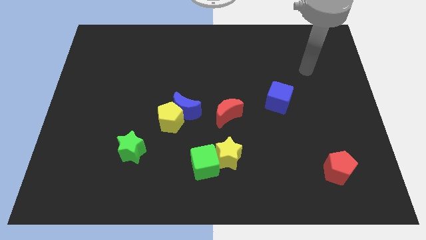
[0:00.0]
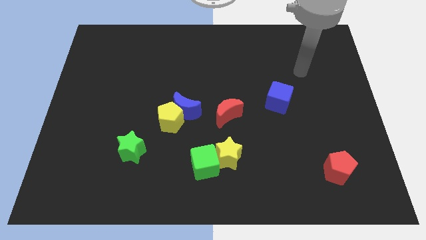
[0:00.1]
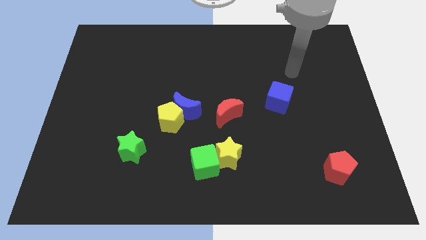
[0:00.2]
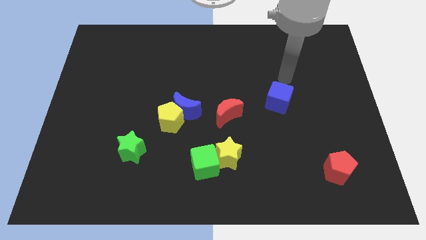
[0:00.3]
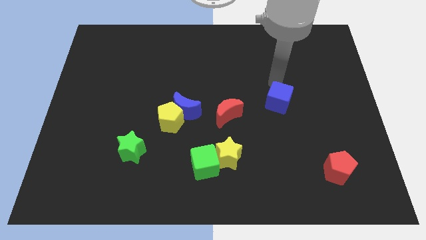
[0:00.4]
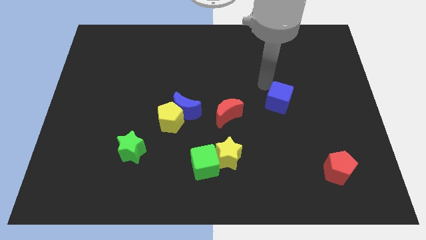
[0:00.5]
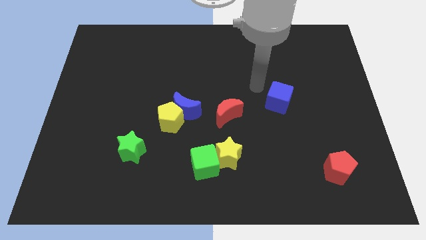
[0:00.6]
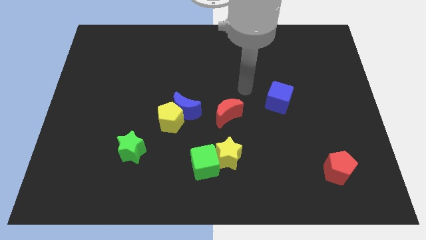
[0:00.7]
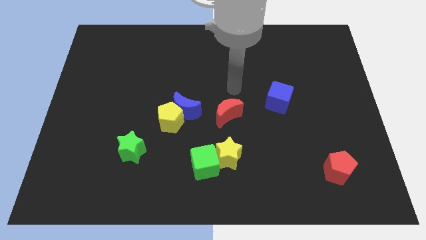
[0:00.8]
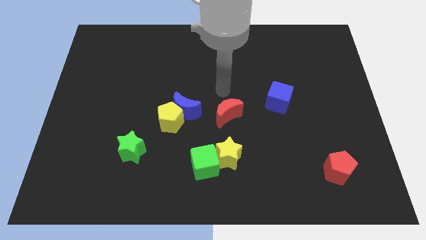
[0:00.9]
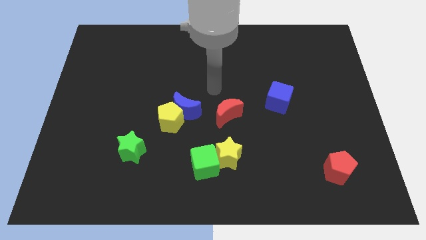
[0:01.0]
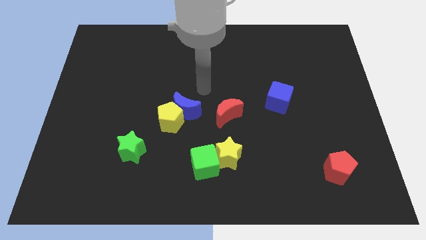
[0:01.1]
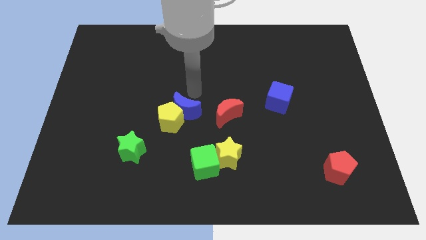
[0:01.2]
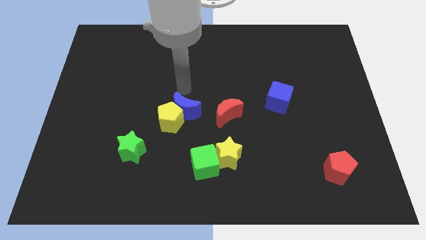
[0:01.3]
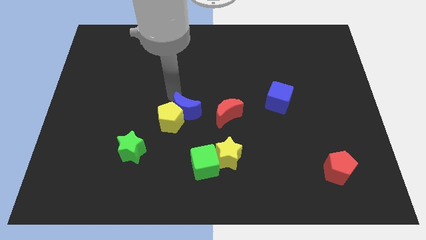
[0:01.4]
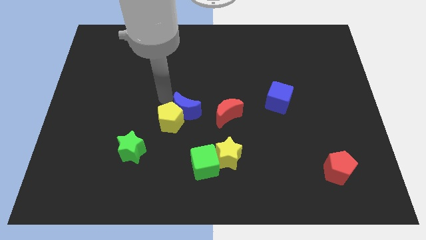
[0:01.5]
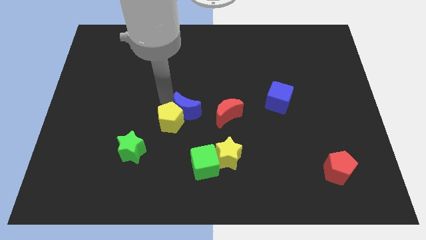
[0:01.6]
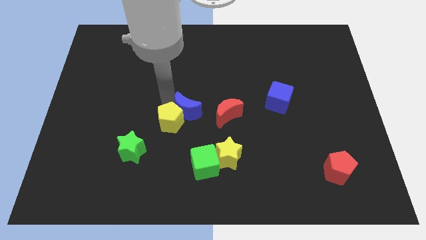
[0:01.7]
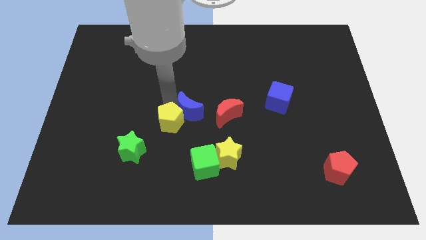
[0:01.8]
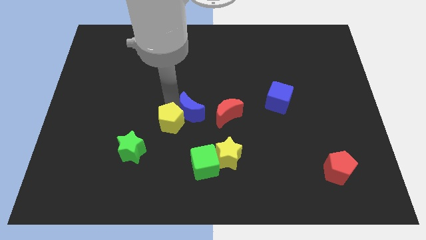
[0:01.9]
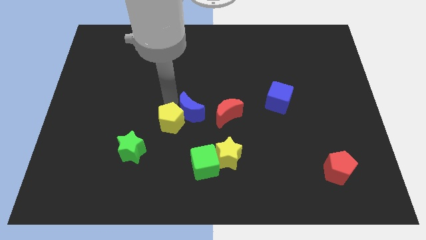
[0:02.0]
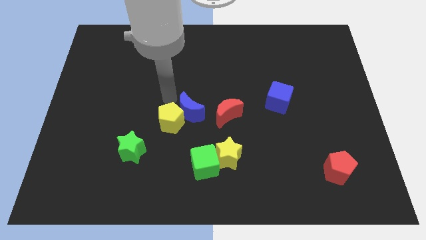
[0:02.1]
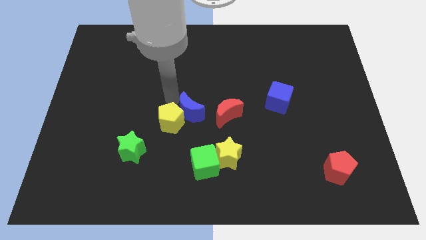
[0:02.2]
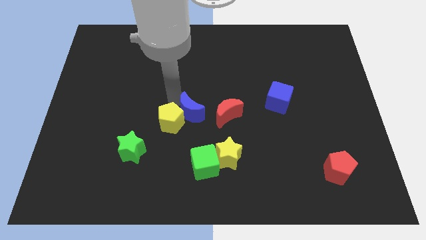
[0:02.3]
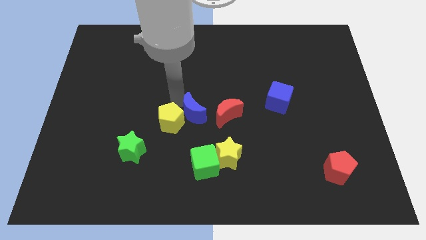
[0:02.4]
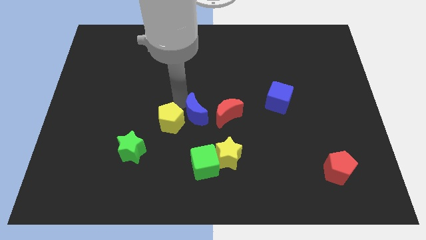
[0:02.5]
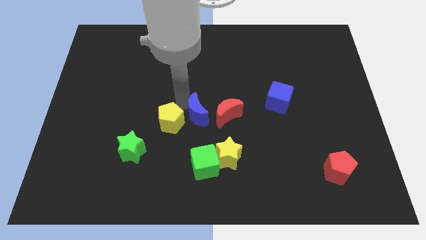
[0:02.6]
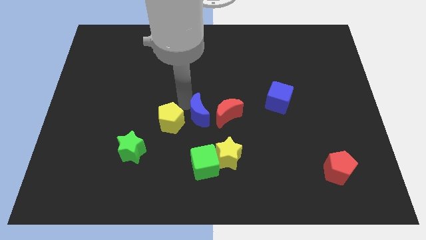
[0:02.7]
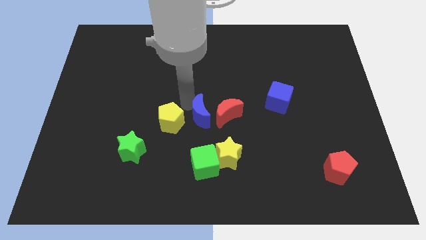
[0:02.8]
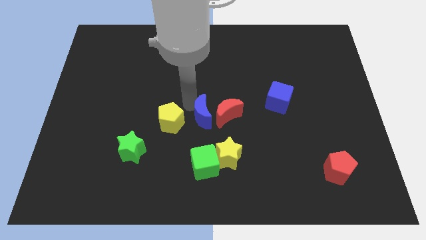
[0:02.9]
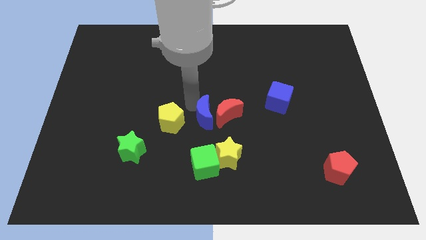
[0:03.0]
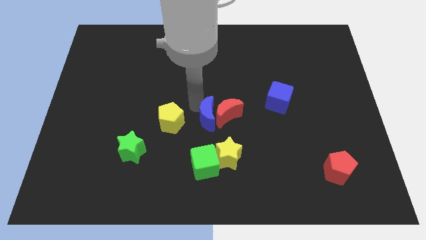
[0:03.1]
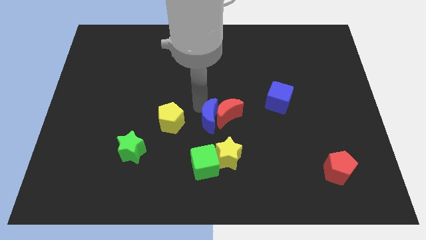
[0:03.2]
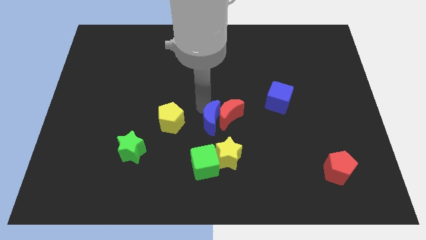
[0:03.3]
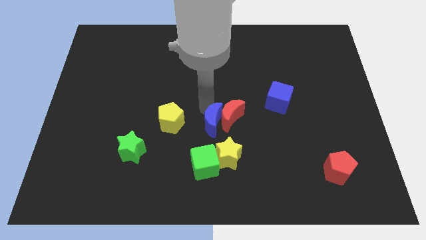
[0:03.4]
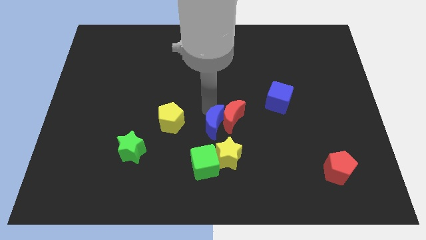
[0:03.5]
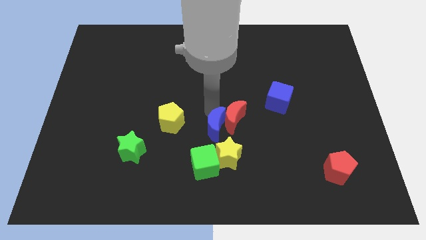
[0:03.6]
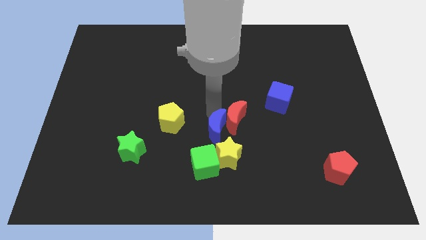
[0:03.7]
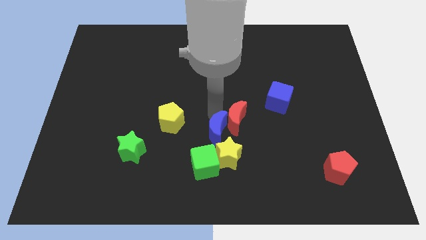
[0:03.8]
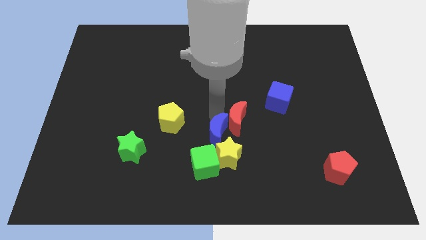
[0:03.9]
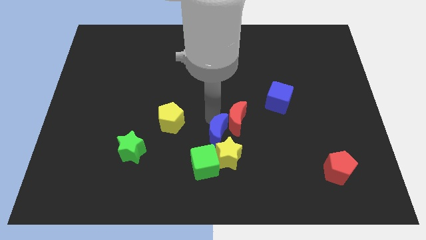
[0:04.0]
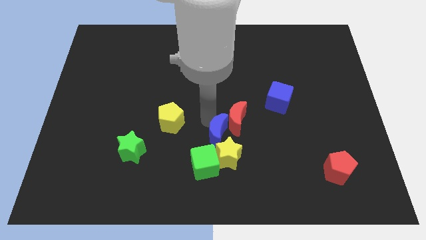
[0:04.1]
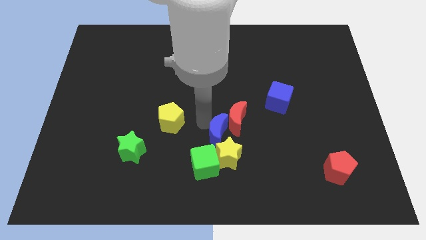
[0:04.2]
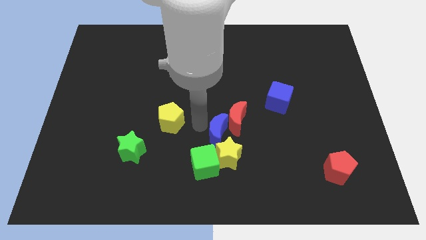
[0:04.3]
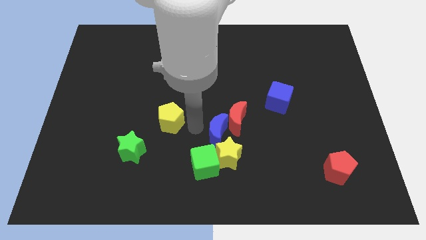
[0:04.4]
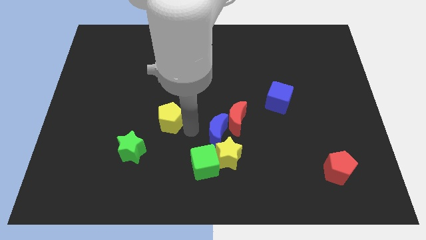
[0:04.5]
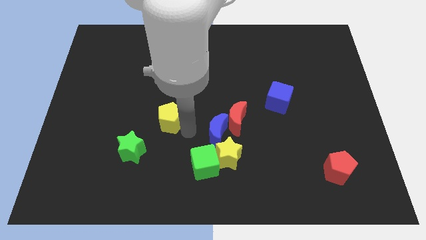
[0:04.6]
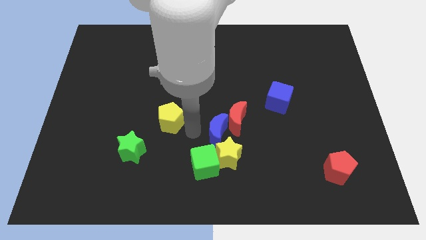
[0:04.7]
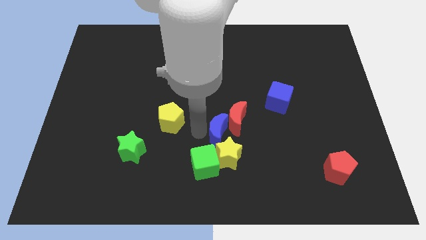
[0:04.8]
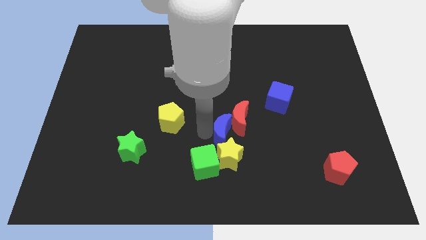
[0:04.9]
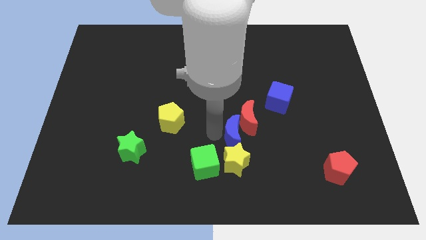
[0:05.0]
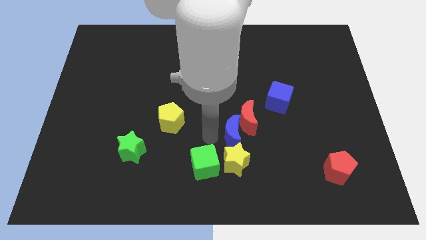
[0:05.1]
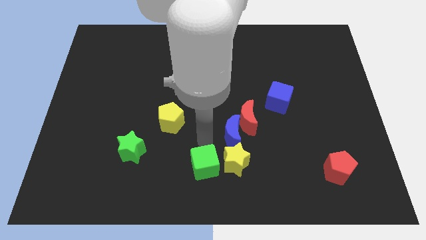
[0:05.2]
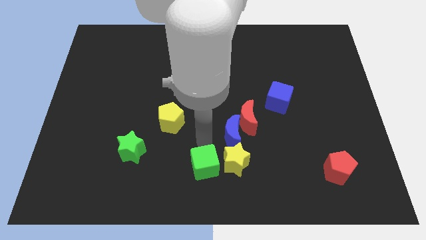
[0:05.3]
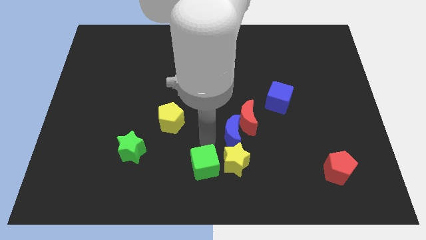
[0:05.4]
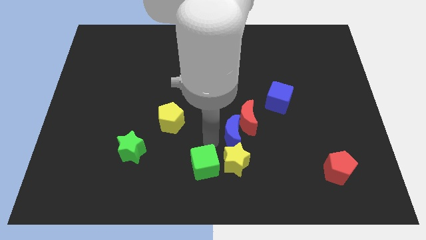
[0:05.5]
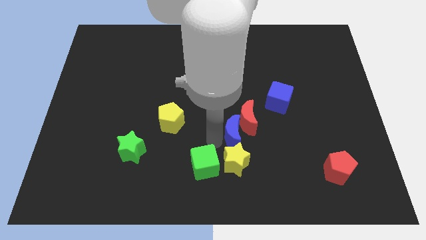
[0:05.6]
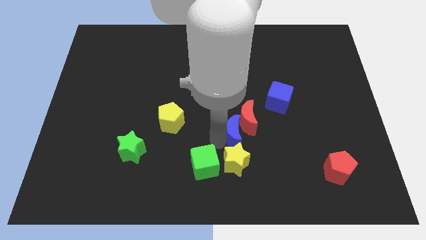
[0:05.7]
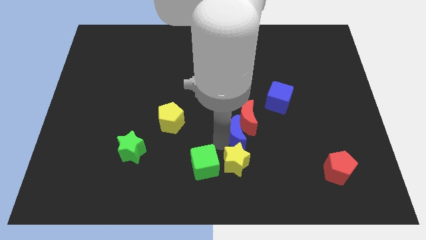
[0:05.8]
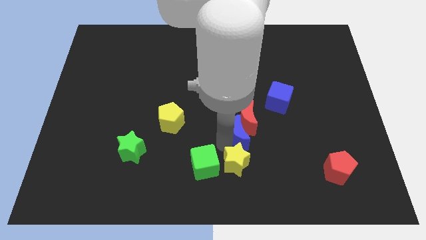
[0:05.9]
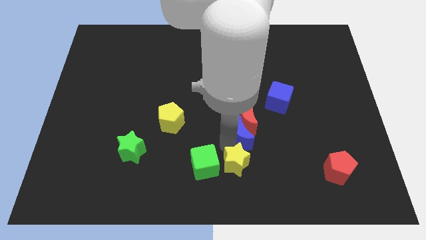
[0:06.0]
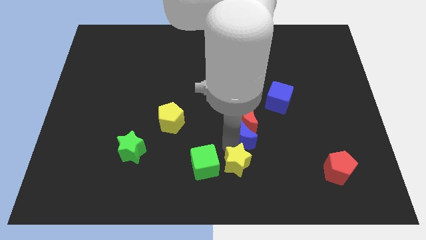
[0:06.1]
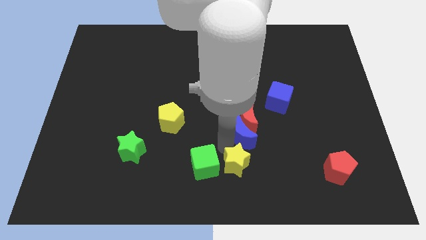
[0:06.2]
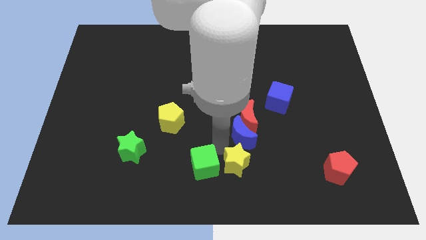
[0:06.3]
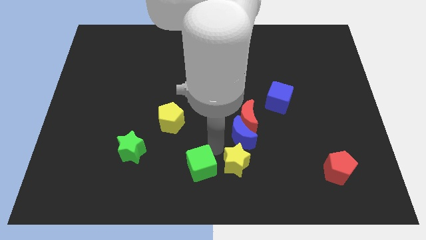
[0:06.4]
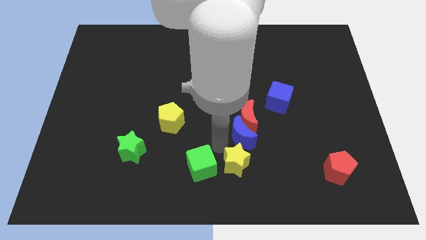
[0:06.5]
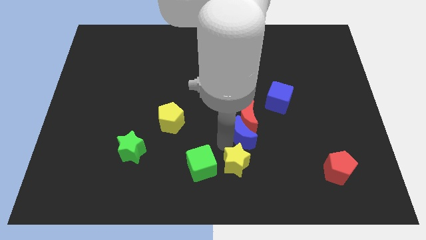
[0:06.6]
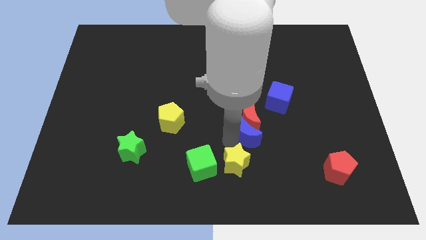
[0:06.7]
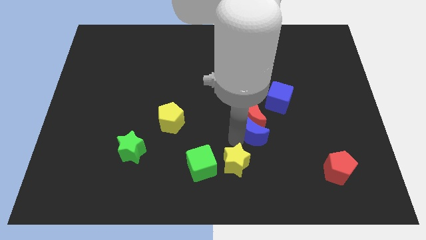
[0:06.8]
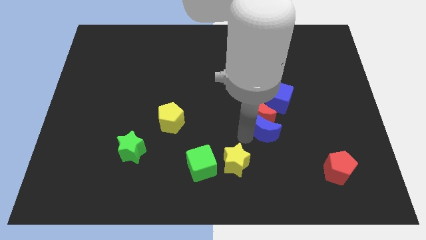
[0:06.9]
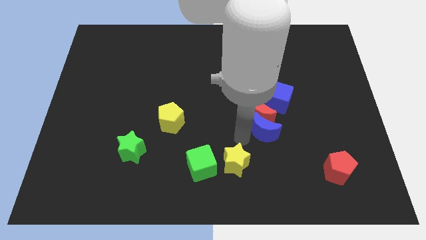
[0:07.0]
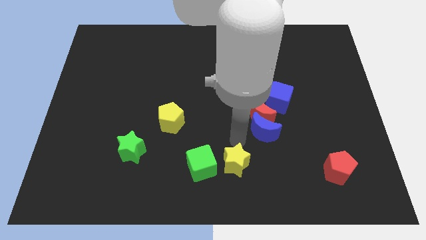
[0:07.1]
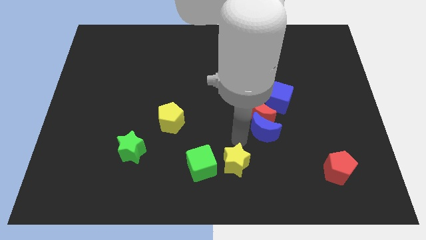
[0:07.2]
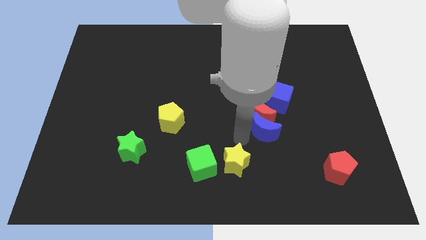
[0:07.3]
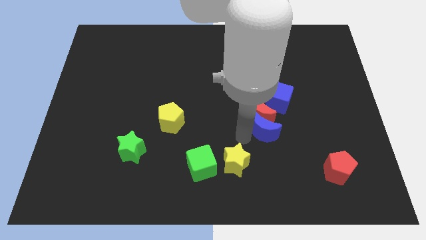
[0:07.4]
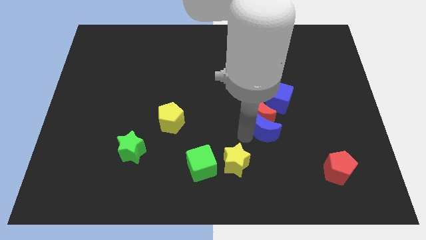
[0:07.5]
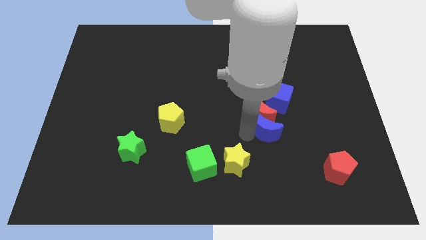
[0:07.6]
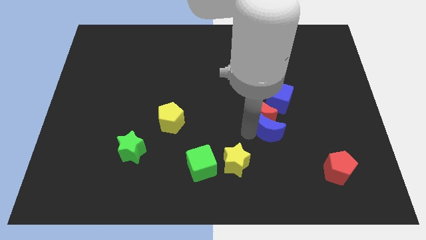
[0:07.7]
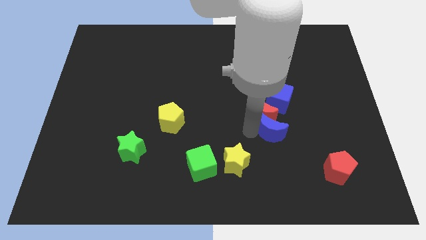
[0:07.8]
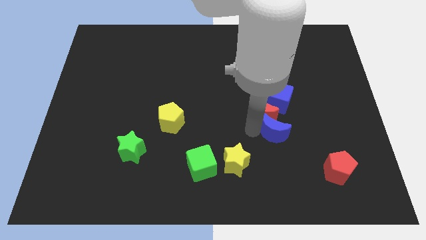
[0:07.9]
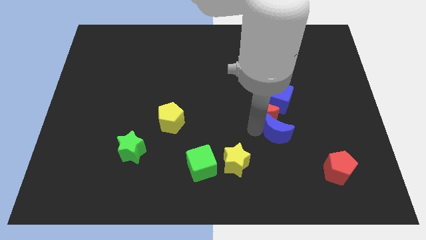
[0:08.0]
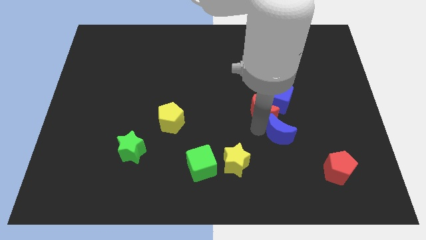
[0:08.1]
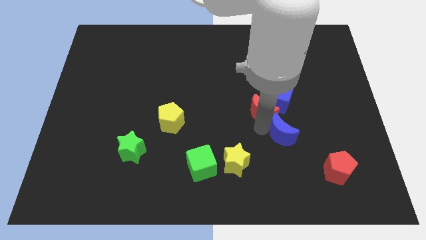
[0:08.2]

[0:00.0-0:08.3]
slide the blue moon right
